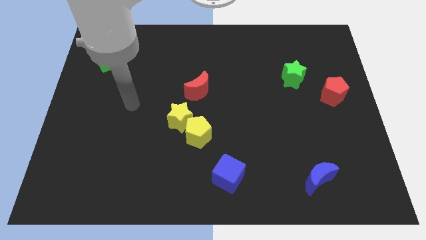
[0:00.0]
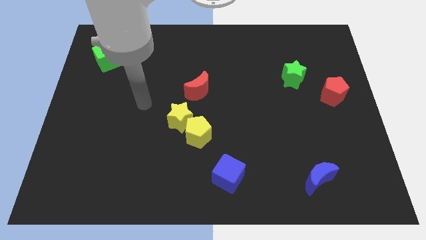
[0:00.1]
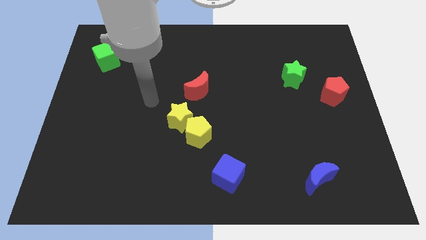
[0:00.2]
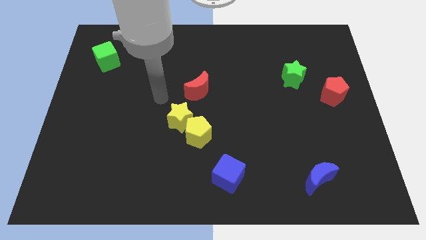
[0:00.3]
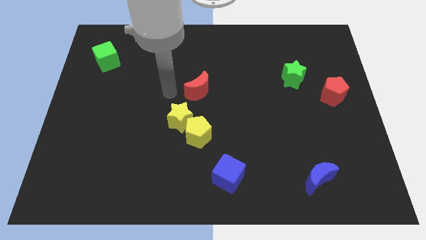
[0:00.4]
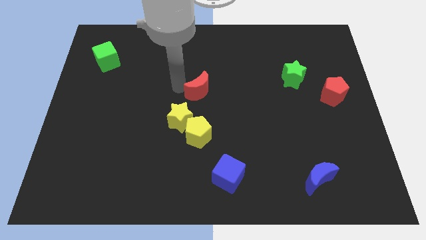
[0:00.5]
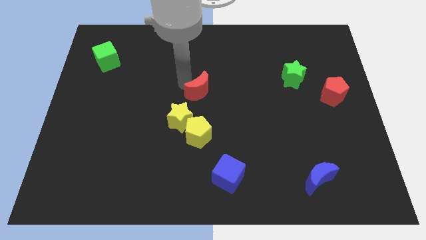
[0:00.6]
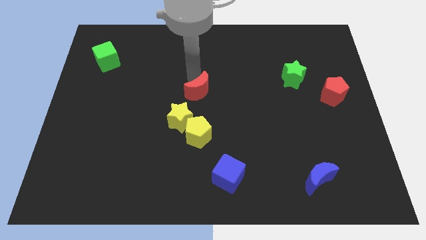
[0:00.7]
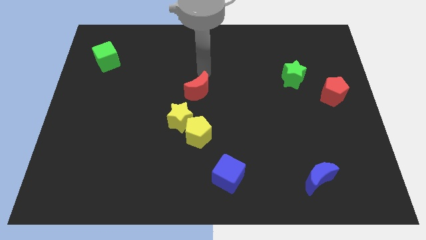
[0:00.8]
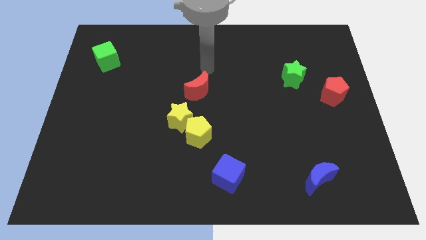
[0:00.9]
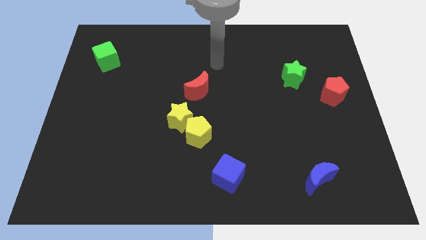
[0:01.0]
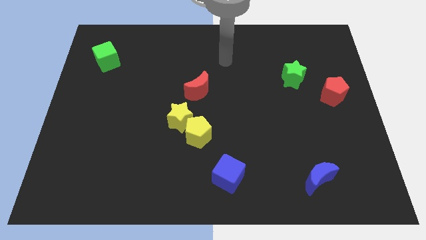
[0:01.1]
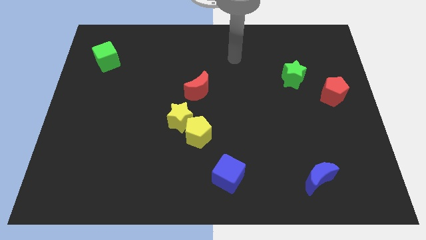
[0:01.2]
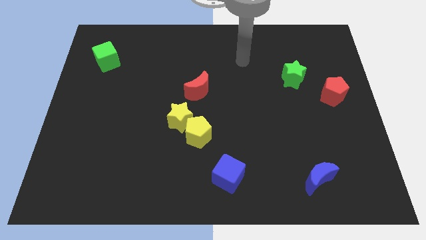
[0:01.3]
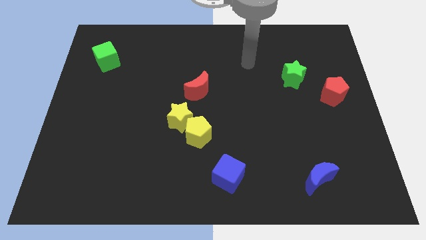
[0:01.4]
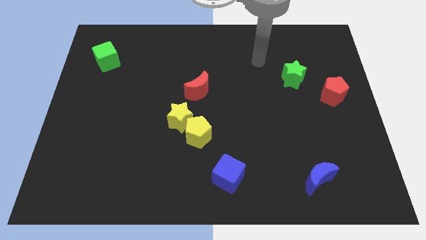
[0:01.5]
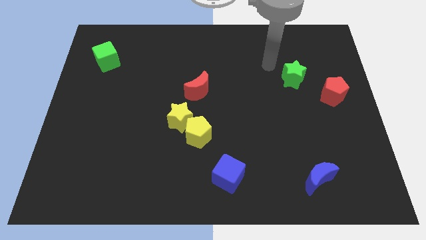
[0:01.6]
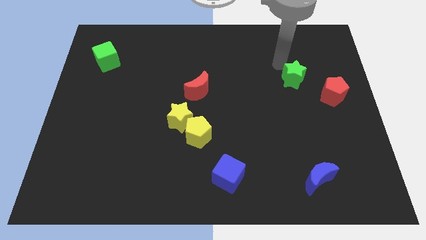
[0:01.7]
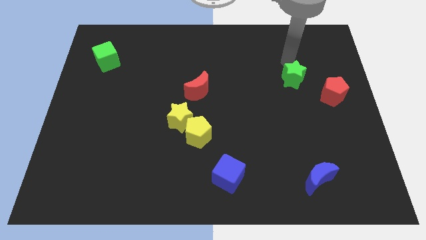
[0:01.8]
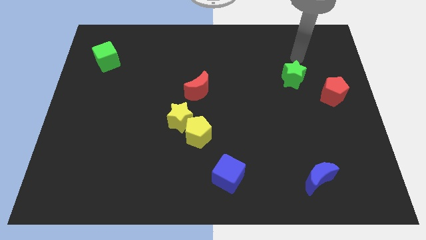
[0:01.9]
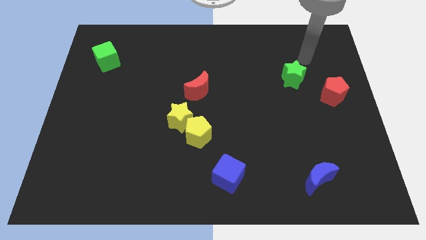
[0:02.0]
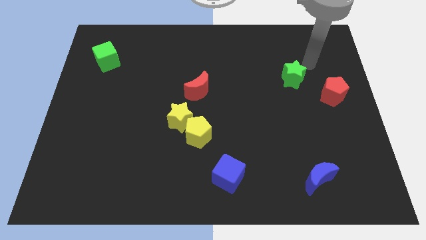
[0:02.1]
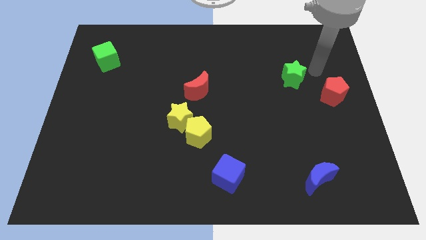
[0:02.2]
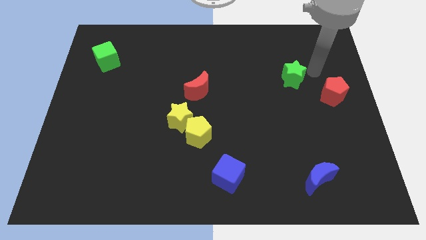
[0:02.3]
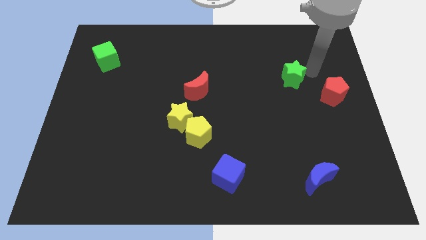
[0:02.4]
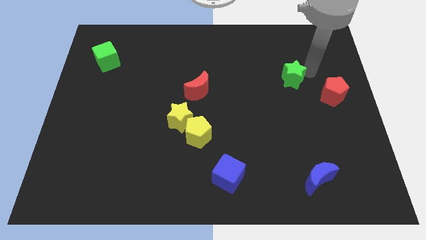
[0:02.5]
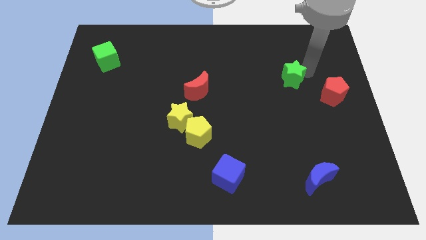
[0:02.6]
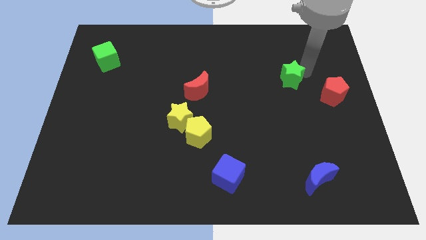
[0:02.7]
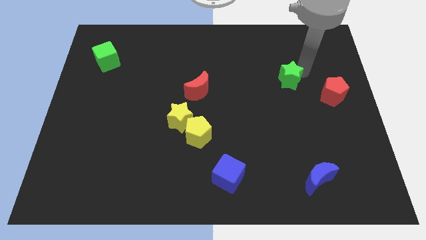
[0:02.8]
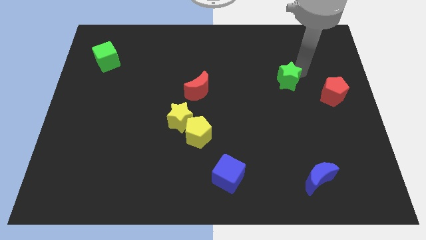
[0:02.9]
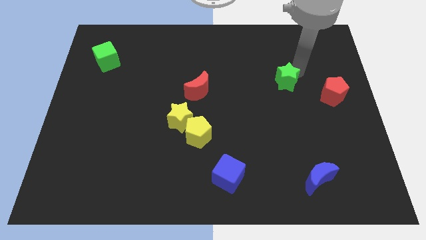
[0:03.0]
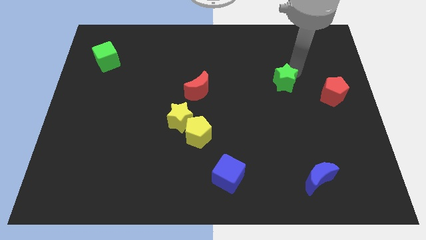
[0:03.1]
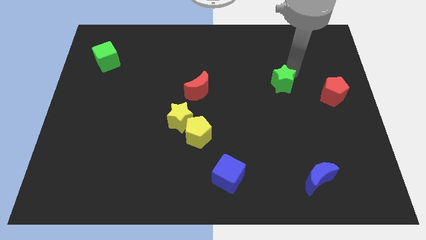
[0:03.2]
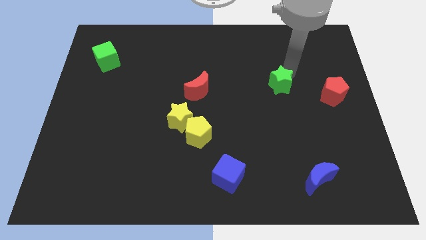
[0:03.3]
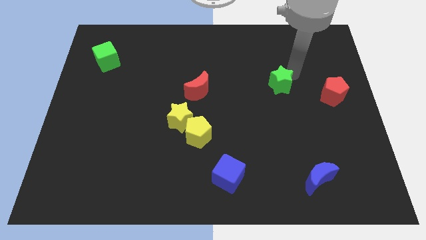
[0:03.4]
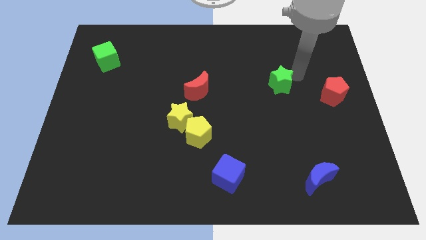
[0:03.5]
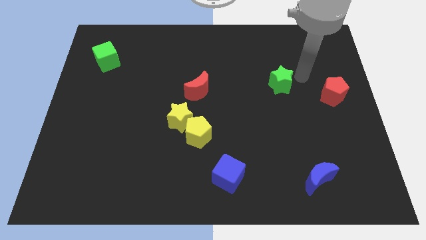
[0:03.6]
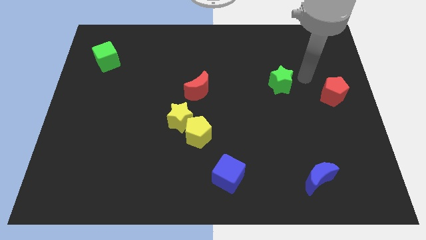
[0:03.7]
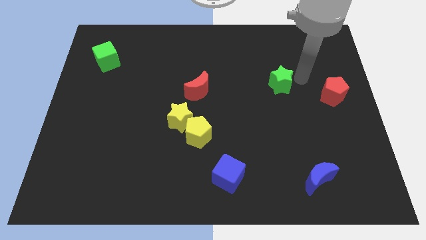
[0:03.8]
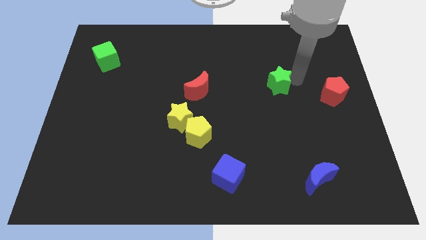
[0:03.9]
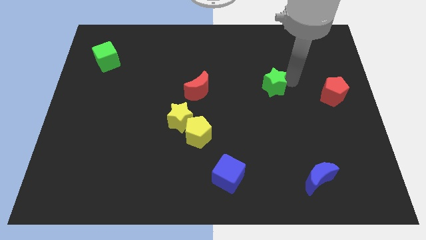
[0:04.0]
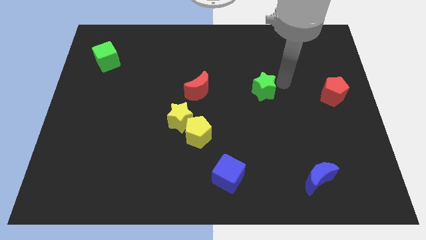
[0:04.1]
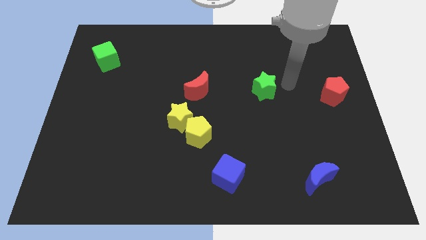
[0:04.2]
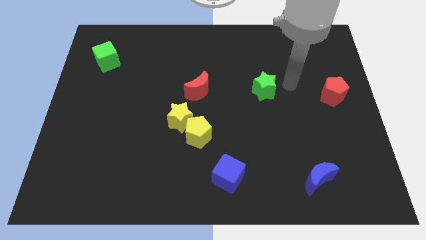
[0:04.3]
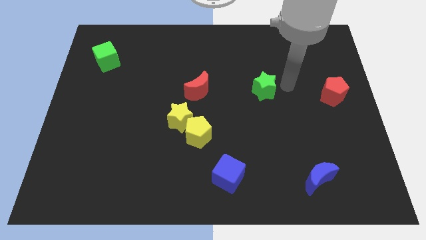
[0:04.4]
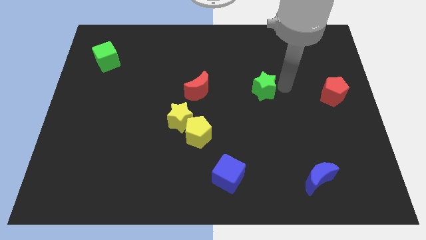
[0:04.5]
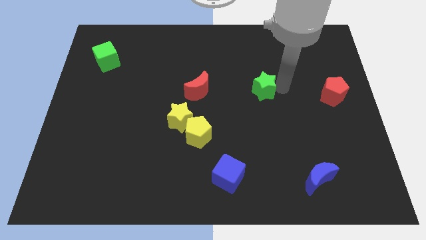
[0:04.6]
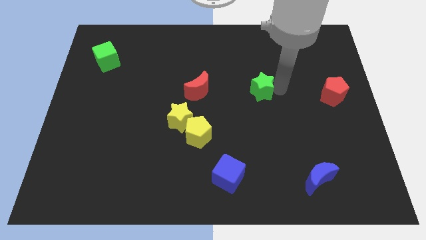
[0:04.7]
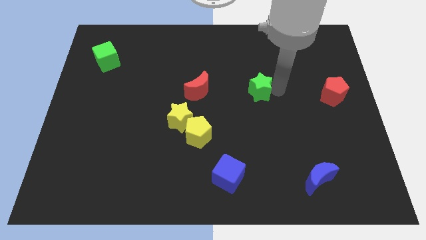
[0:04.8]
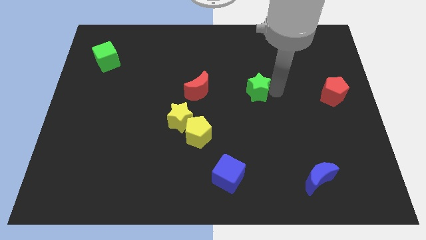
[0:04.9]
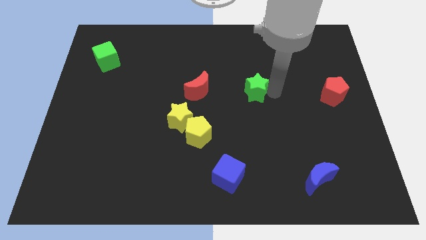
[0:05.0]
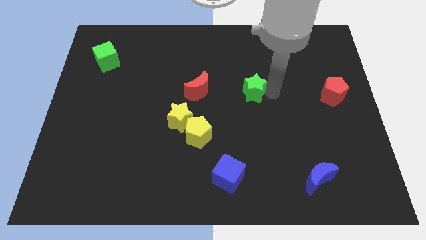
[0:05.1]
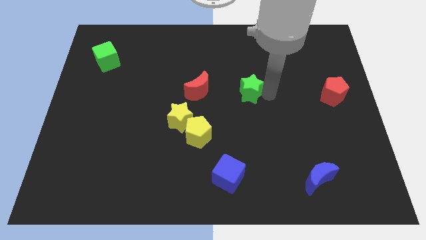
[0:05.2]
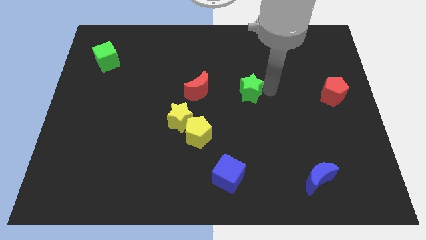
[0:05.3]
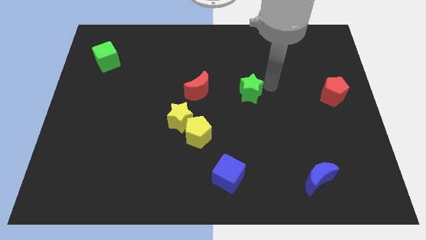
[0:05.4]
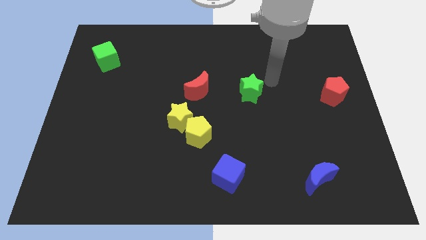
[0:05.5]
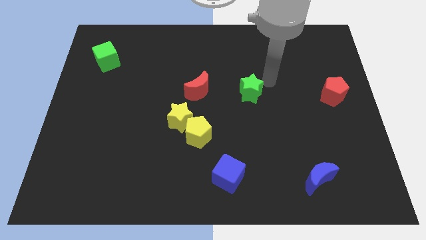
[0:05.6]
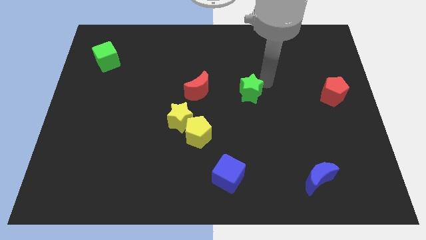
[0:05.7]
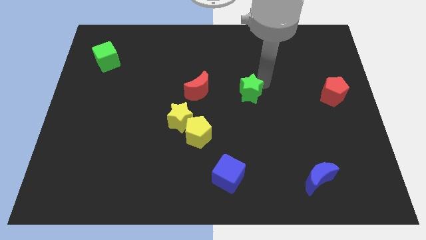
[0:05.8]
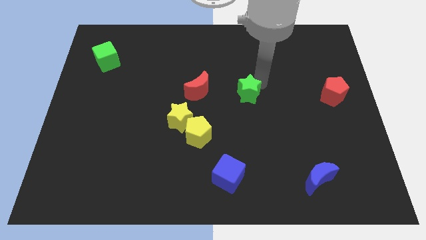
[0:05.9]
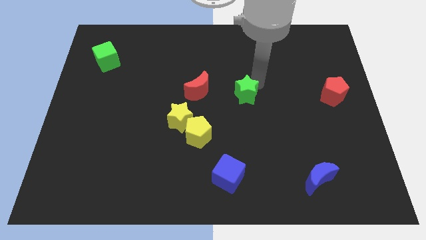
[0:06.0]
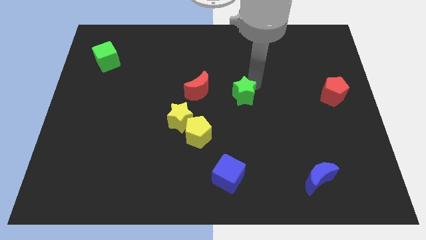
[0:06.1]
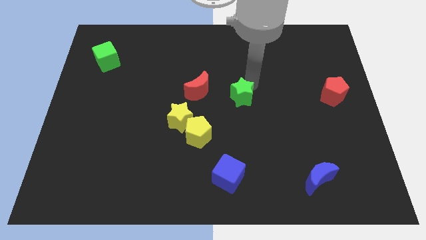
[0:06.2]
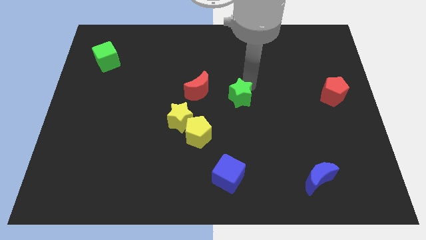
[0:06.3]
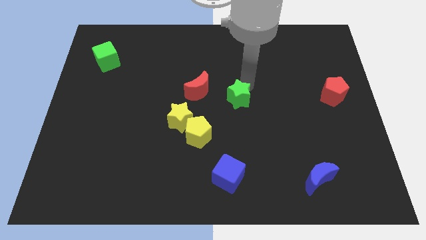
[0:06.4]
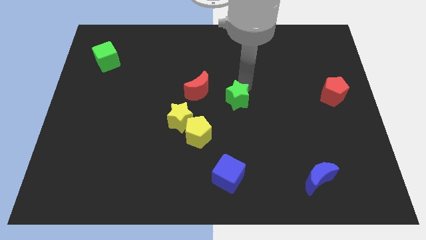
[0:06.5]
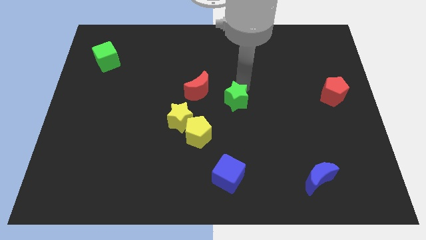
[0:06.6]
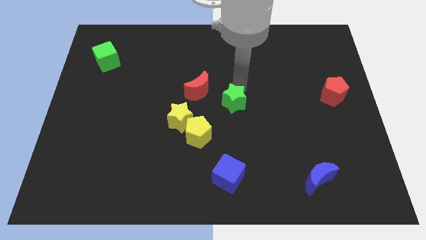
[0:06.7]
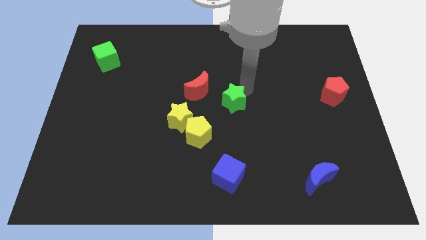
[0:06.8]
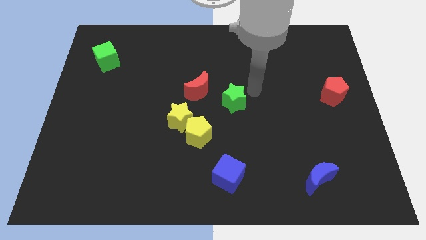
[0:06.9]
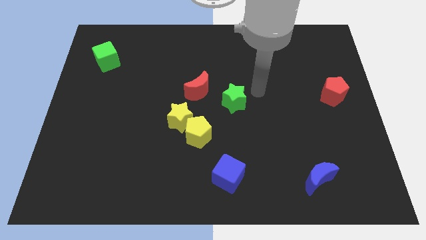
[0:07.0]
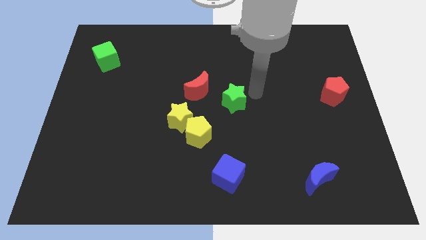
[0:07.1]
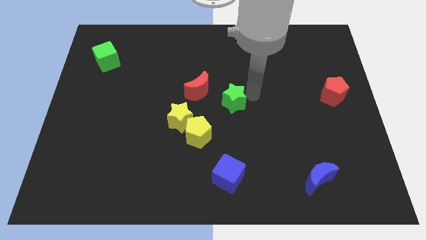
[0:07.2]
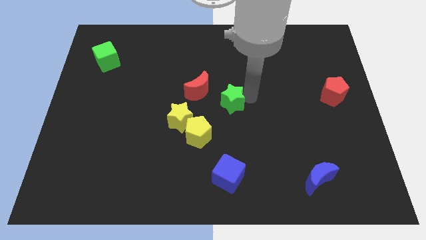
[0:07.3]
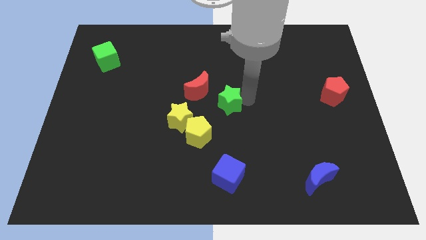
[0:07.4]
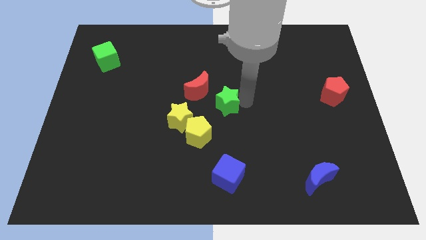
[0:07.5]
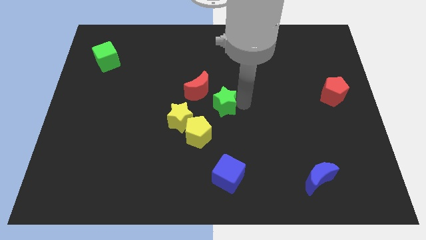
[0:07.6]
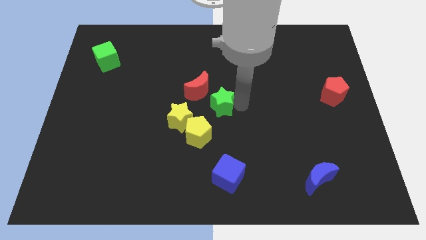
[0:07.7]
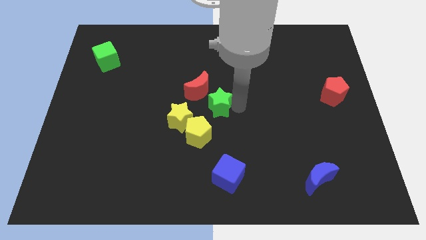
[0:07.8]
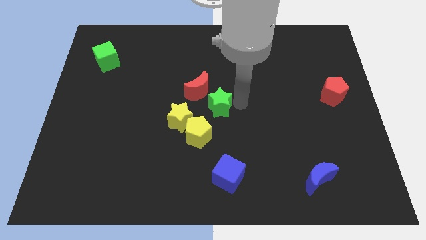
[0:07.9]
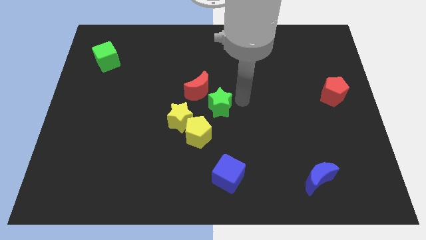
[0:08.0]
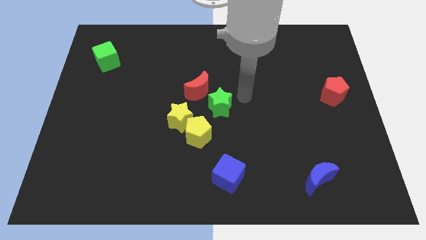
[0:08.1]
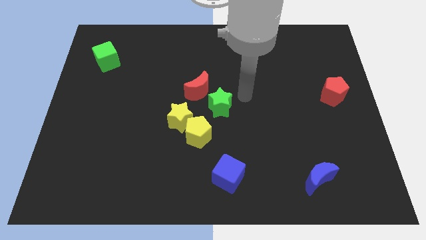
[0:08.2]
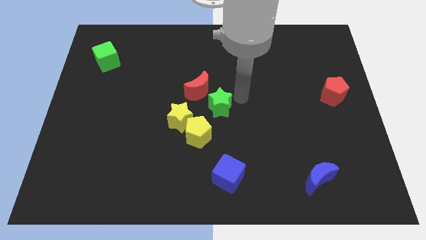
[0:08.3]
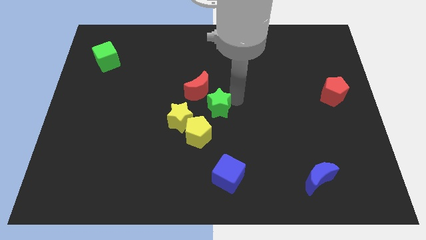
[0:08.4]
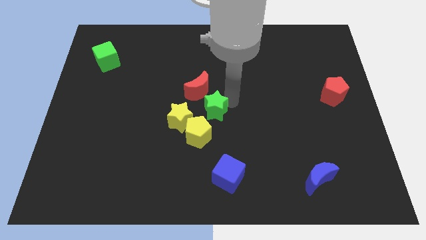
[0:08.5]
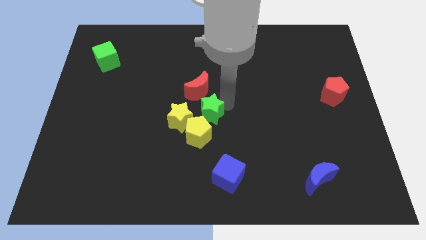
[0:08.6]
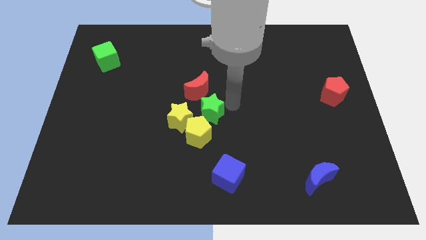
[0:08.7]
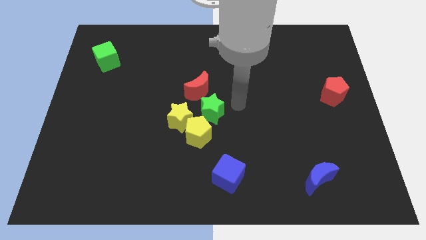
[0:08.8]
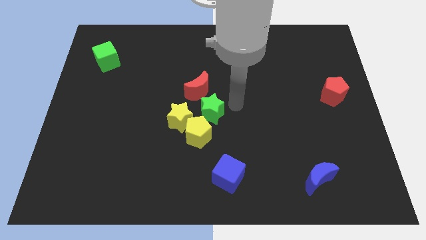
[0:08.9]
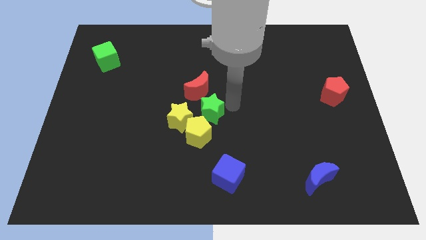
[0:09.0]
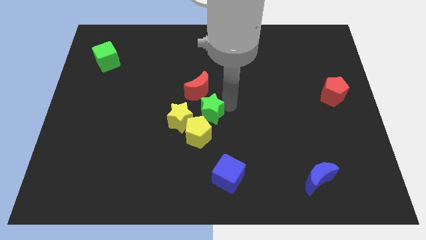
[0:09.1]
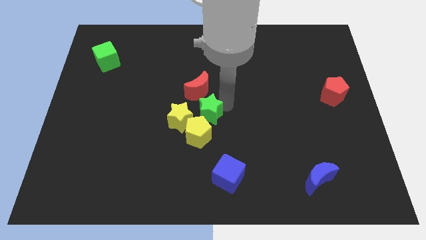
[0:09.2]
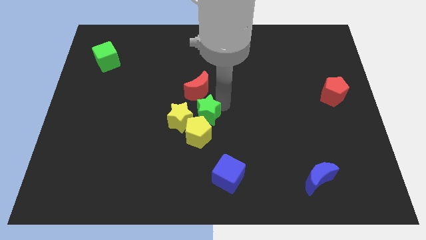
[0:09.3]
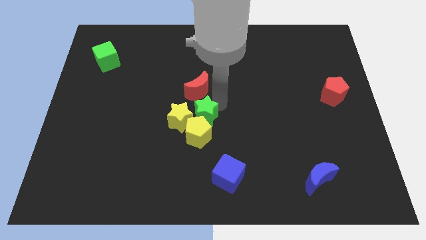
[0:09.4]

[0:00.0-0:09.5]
put the green star towards the yellow star
